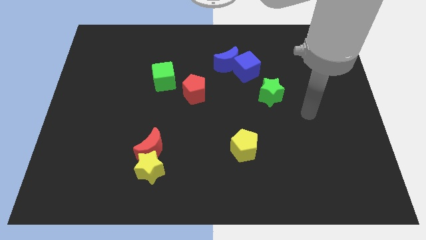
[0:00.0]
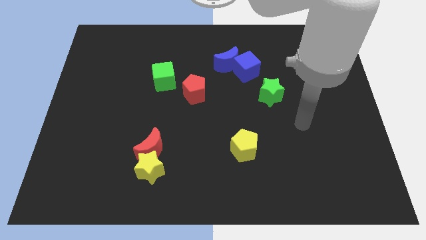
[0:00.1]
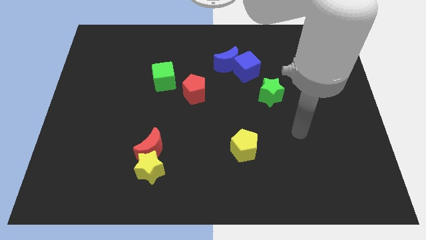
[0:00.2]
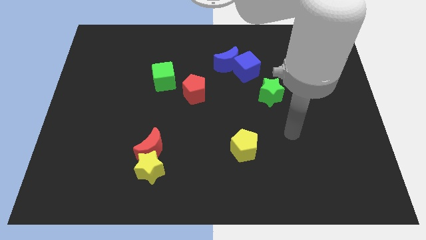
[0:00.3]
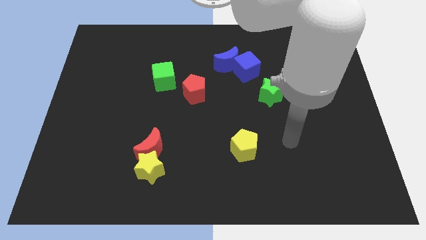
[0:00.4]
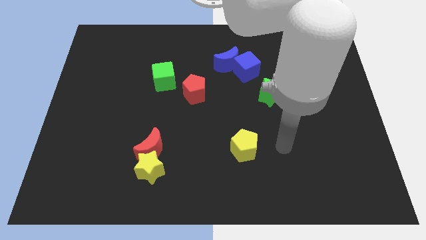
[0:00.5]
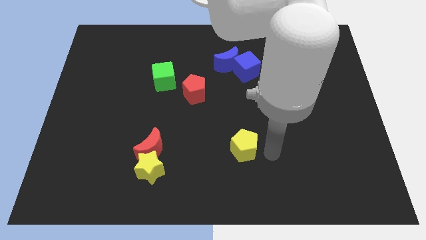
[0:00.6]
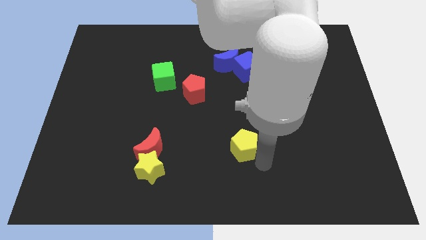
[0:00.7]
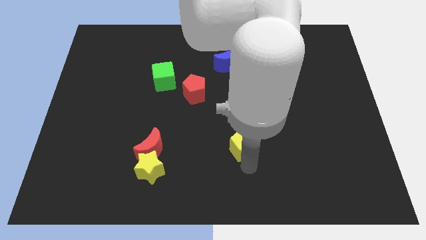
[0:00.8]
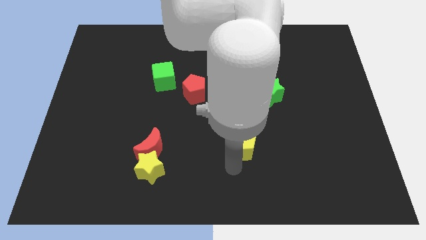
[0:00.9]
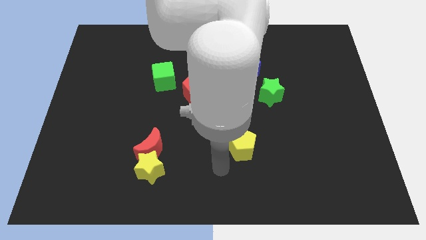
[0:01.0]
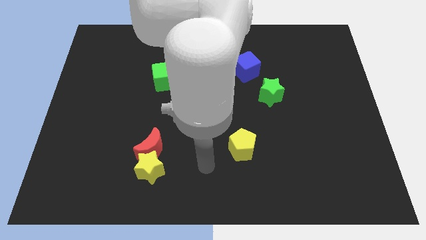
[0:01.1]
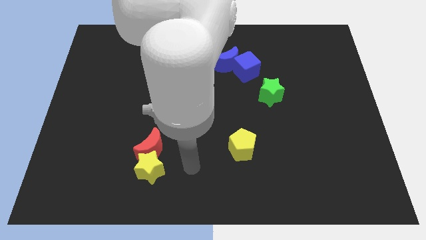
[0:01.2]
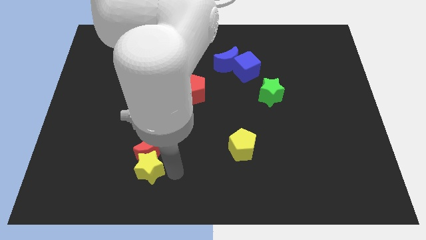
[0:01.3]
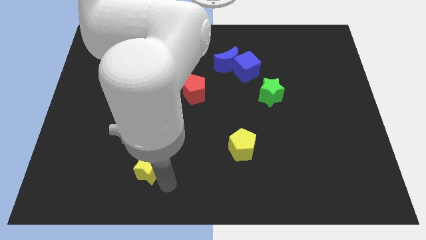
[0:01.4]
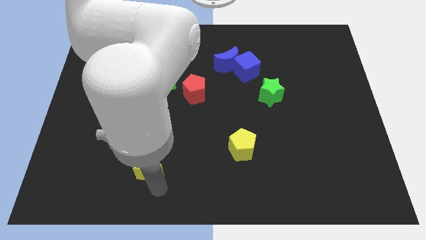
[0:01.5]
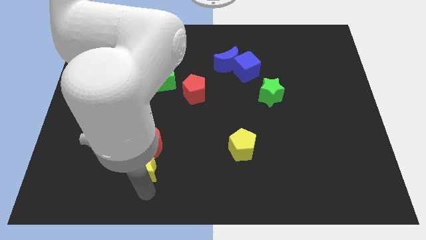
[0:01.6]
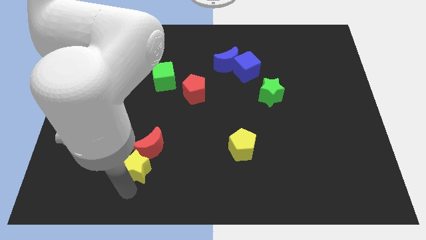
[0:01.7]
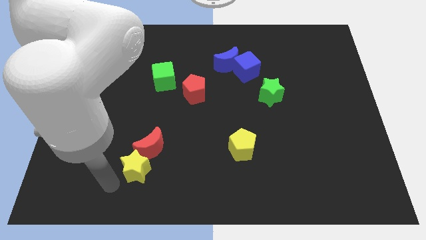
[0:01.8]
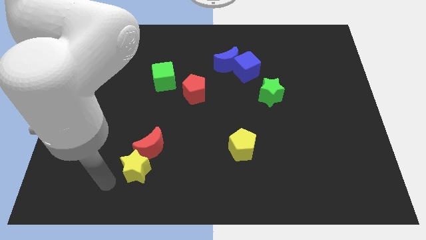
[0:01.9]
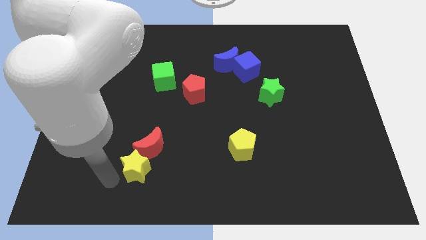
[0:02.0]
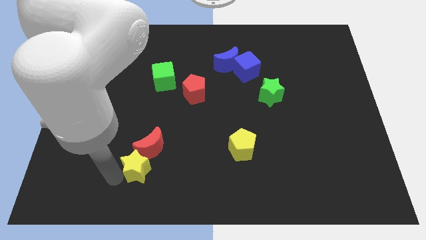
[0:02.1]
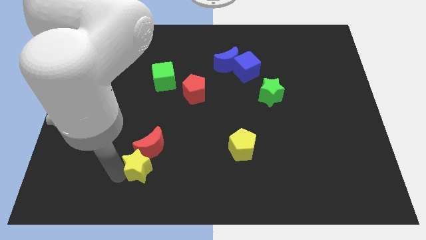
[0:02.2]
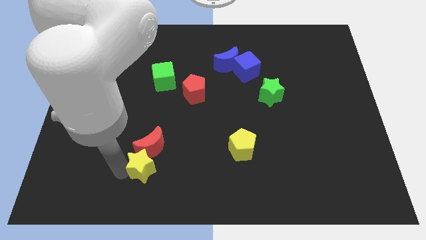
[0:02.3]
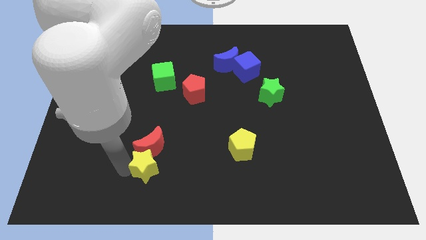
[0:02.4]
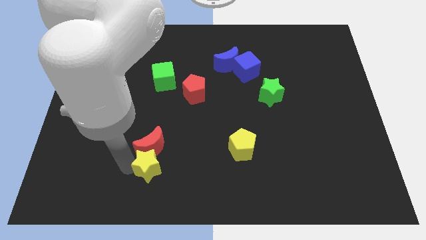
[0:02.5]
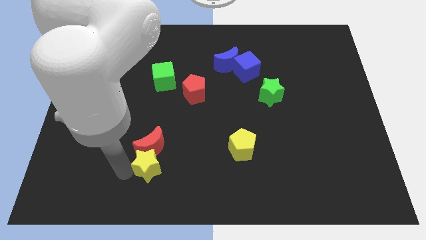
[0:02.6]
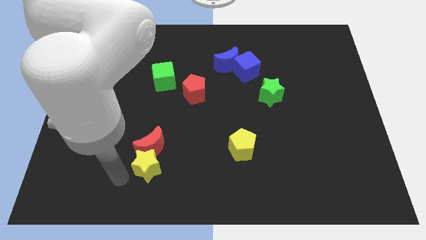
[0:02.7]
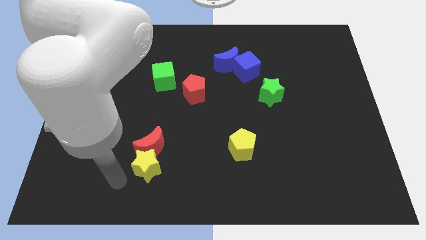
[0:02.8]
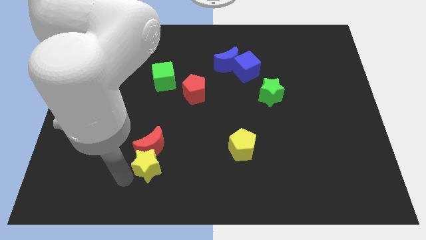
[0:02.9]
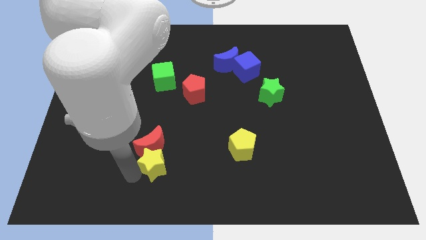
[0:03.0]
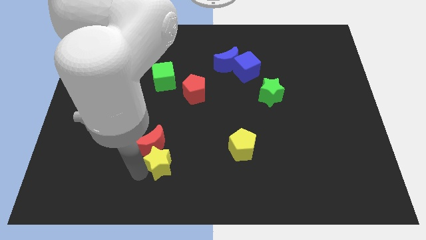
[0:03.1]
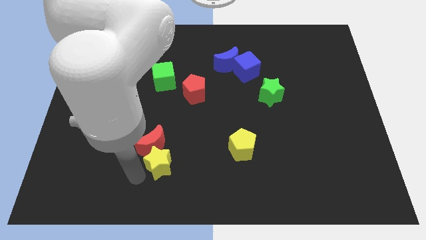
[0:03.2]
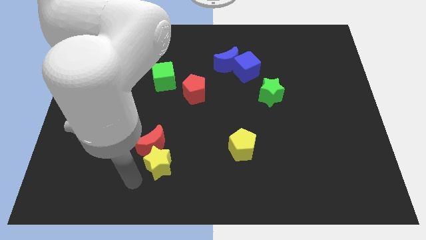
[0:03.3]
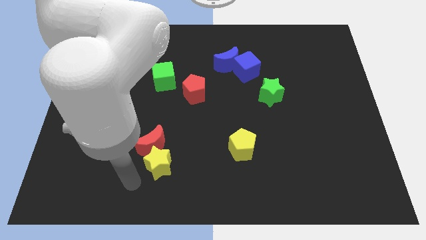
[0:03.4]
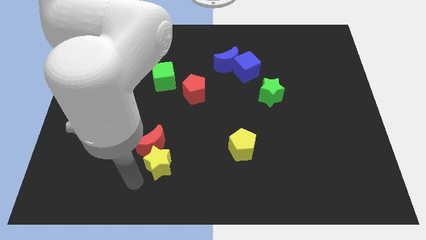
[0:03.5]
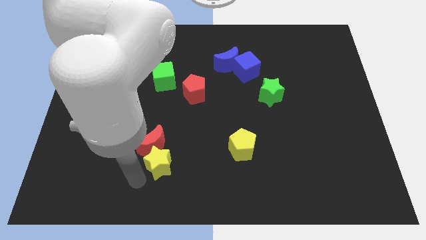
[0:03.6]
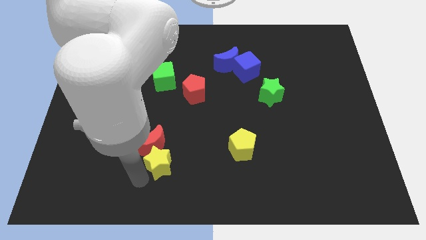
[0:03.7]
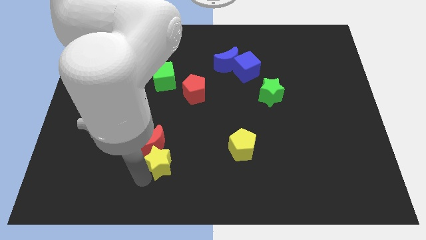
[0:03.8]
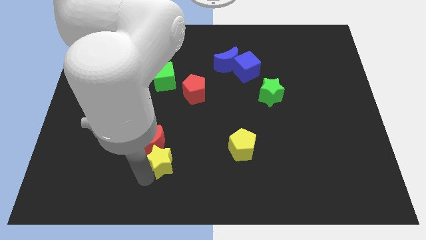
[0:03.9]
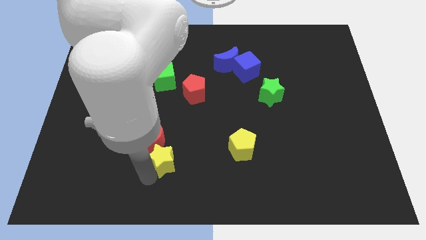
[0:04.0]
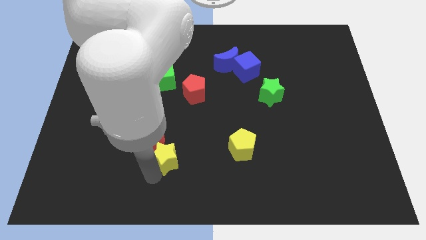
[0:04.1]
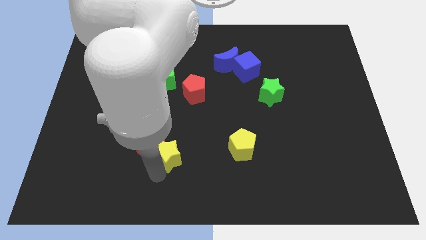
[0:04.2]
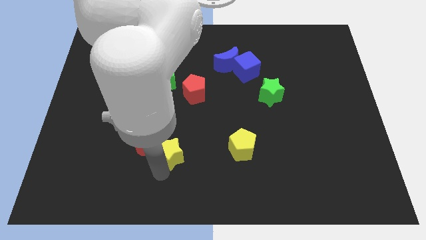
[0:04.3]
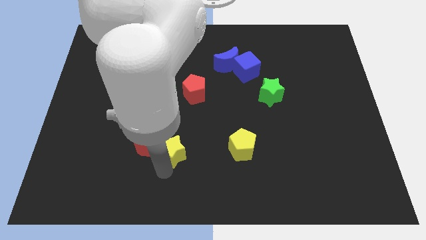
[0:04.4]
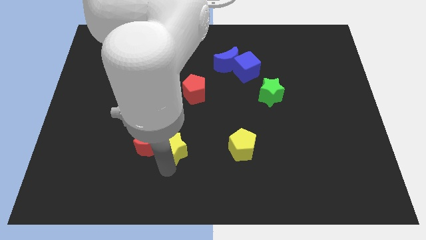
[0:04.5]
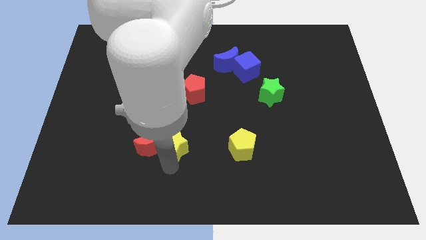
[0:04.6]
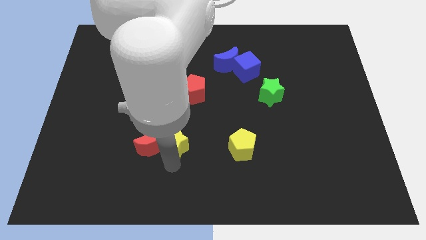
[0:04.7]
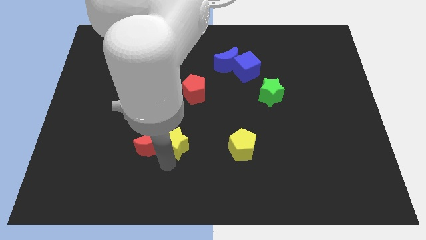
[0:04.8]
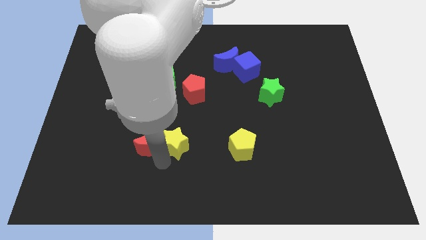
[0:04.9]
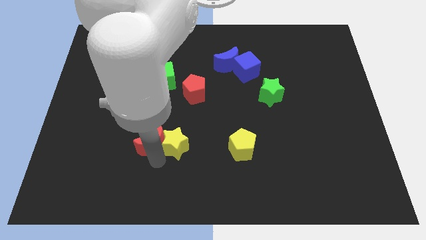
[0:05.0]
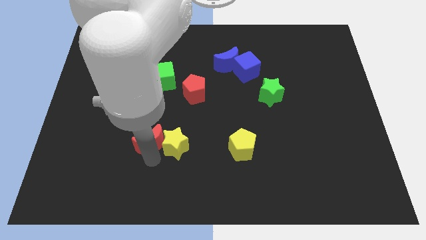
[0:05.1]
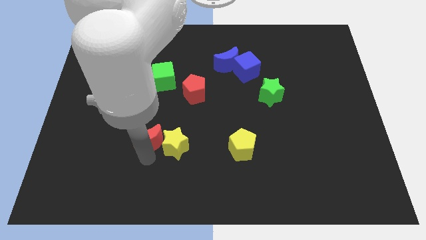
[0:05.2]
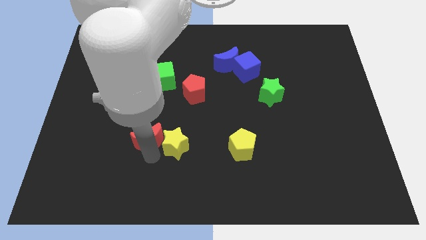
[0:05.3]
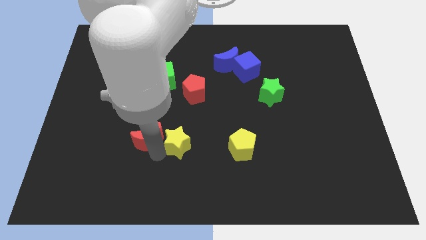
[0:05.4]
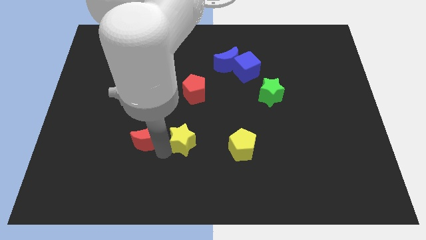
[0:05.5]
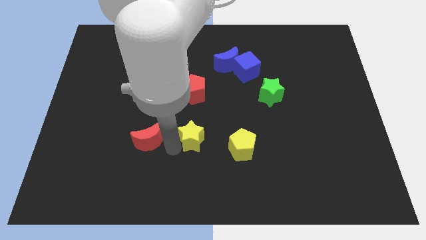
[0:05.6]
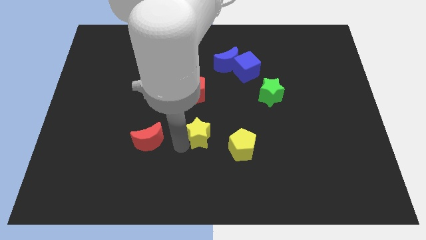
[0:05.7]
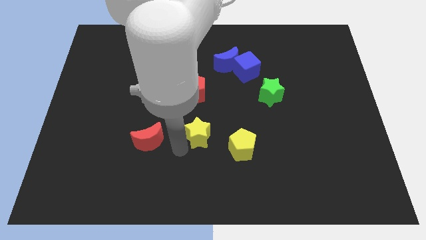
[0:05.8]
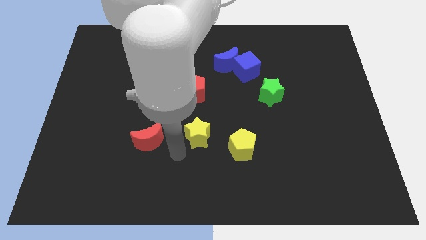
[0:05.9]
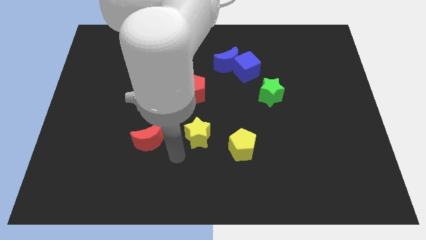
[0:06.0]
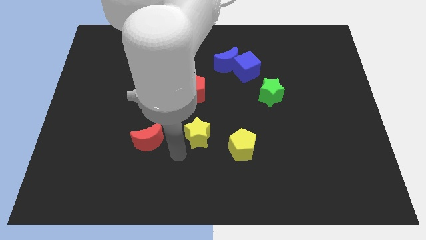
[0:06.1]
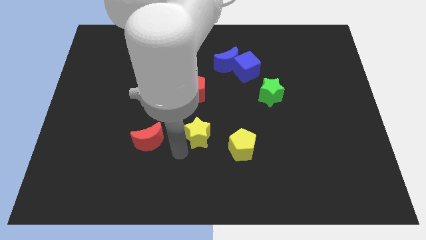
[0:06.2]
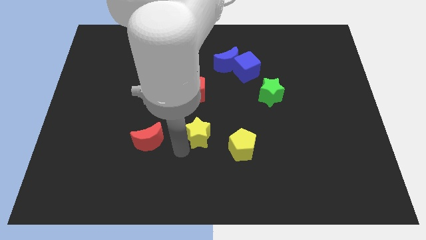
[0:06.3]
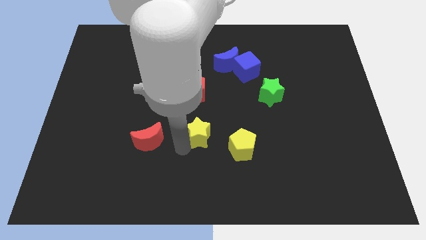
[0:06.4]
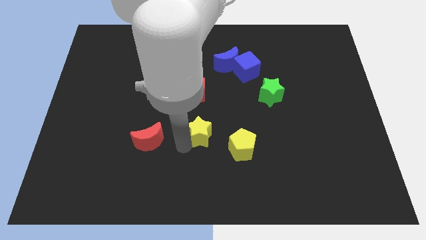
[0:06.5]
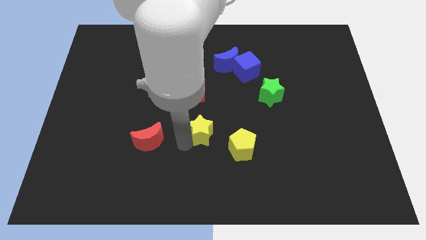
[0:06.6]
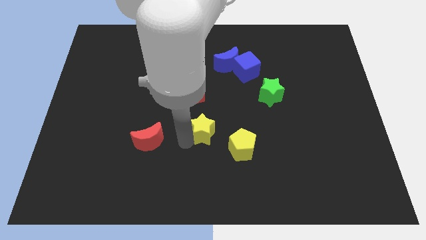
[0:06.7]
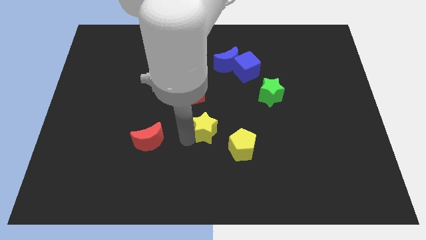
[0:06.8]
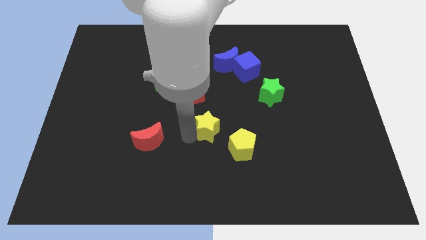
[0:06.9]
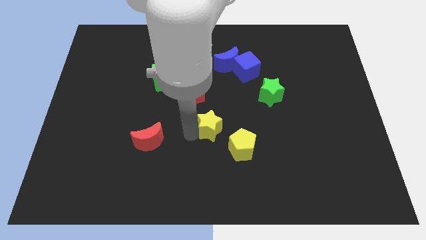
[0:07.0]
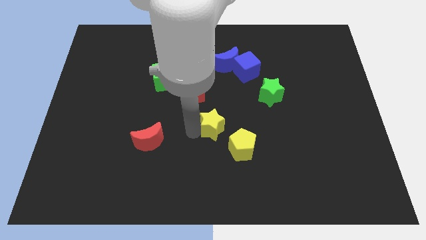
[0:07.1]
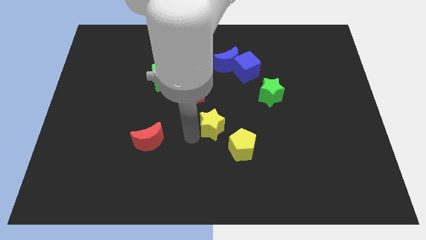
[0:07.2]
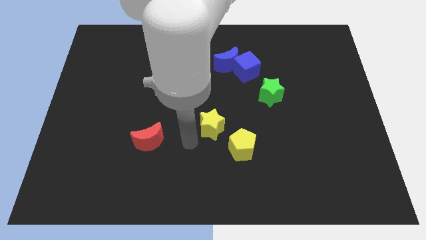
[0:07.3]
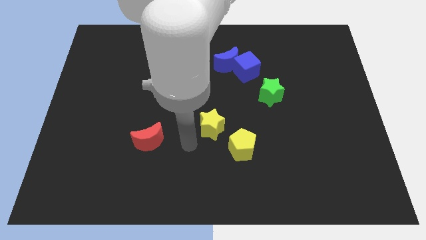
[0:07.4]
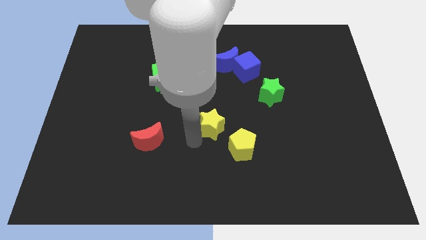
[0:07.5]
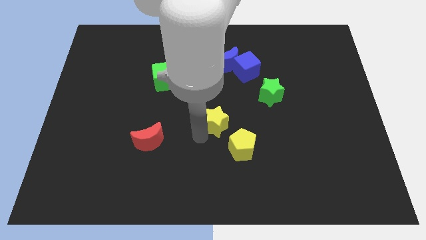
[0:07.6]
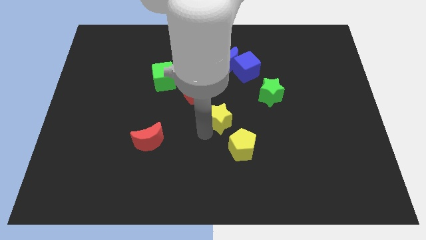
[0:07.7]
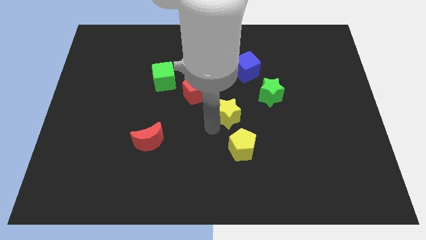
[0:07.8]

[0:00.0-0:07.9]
move the yellow star up and then right

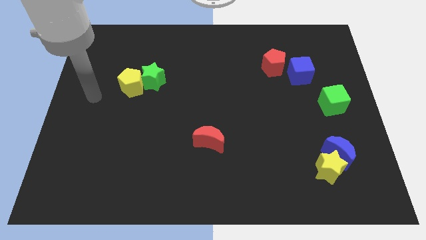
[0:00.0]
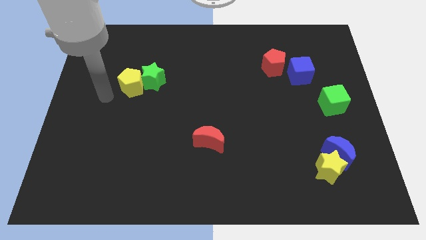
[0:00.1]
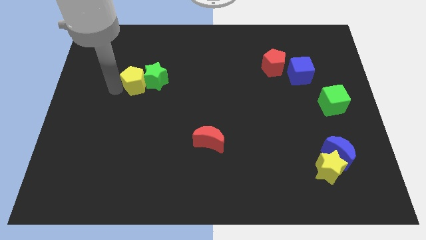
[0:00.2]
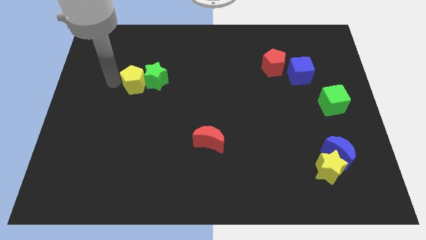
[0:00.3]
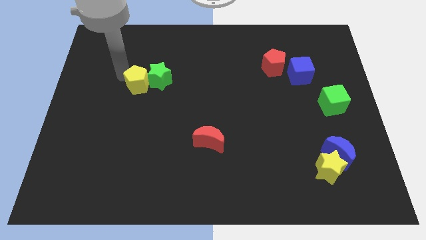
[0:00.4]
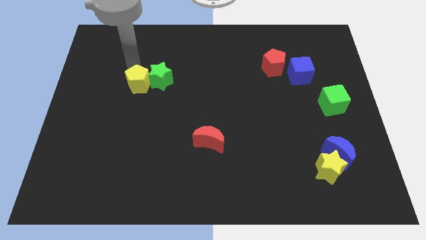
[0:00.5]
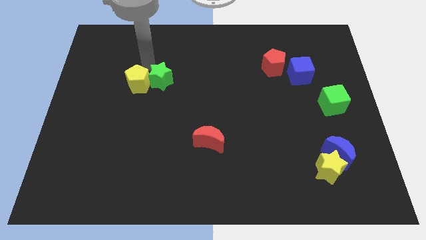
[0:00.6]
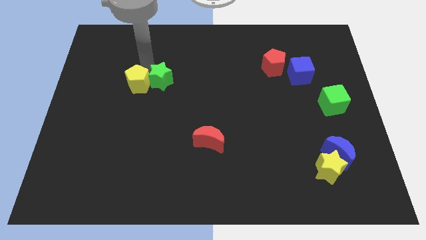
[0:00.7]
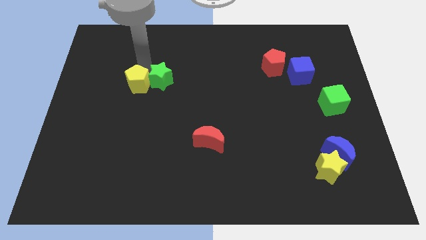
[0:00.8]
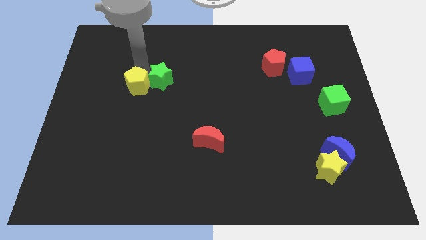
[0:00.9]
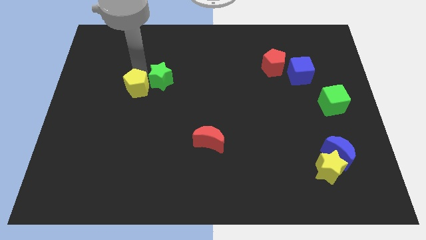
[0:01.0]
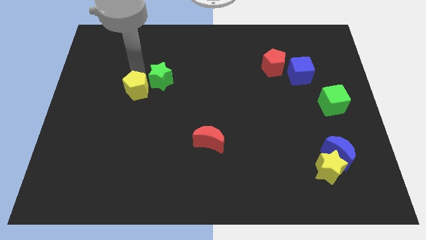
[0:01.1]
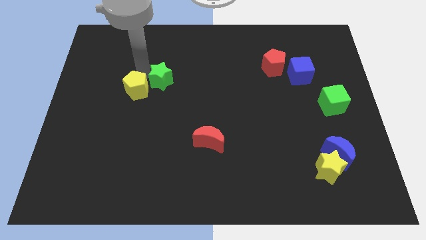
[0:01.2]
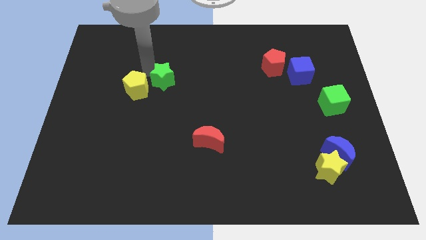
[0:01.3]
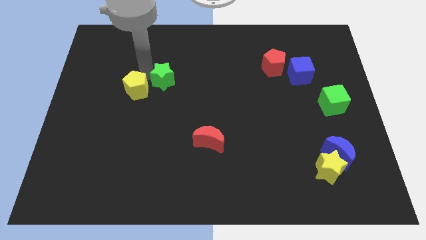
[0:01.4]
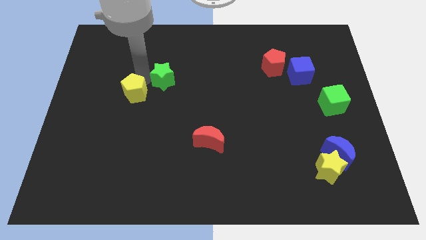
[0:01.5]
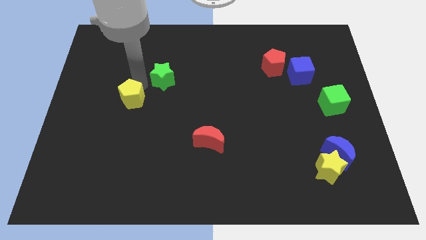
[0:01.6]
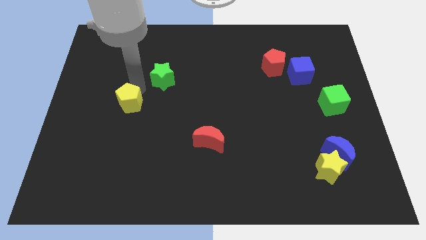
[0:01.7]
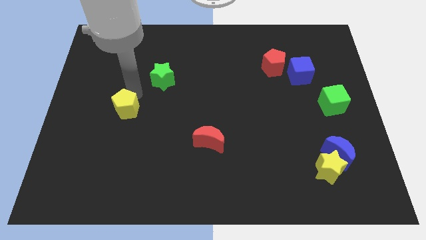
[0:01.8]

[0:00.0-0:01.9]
move the yellow pentagon somewhat downwards
